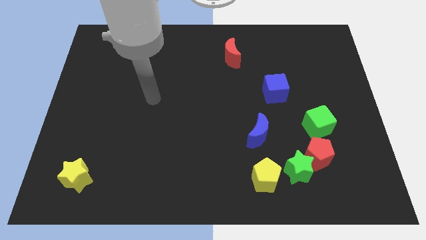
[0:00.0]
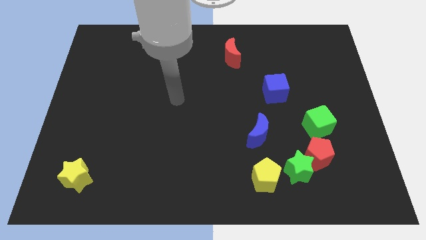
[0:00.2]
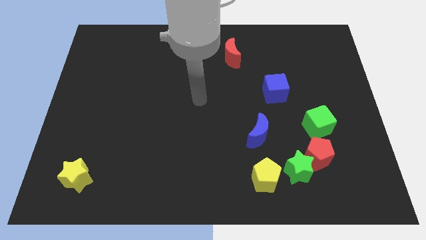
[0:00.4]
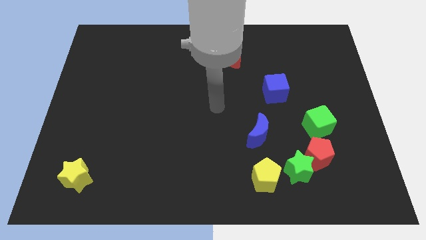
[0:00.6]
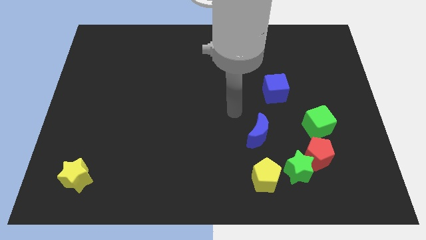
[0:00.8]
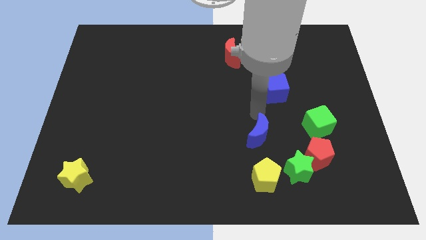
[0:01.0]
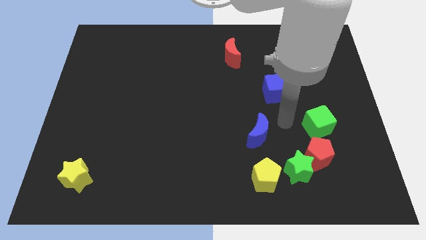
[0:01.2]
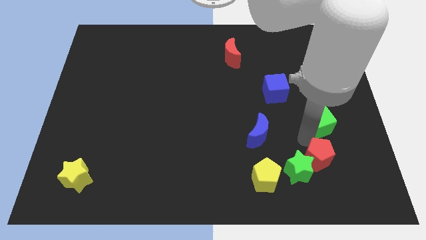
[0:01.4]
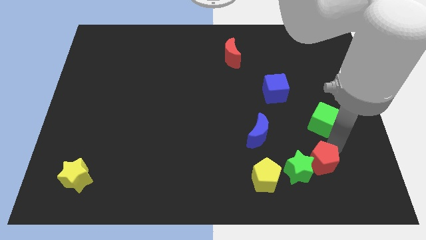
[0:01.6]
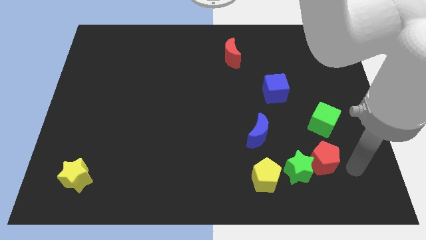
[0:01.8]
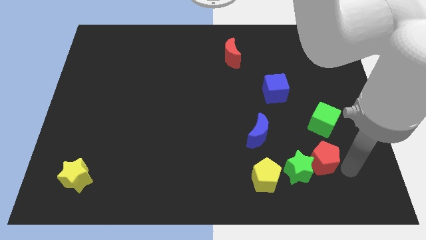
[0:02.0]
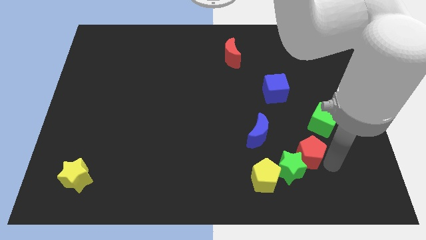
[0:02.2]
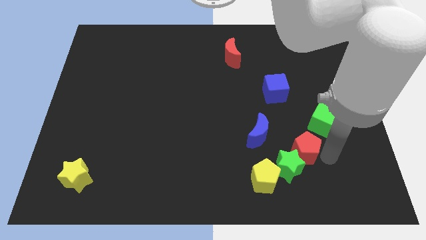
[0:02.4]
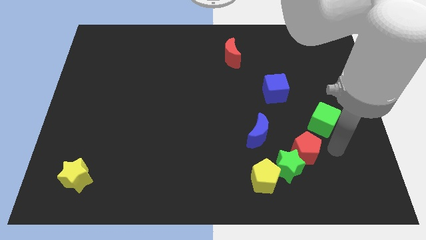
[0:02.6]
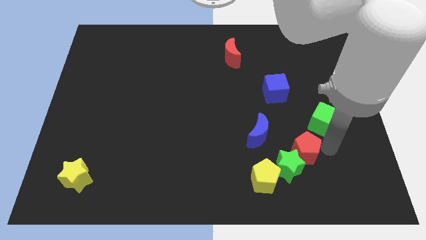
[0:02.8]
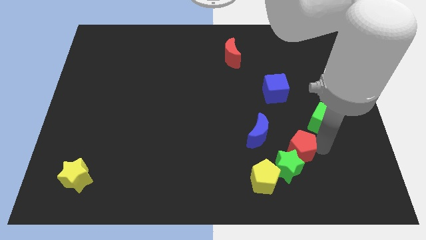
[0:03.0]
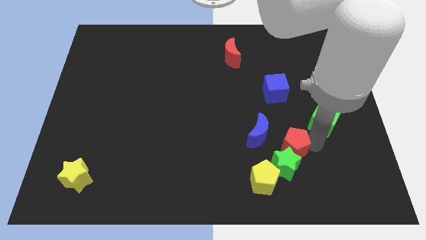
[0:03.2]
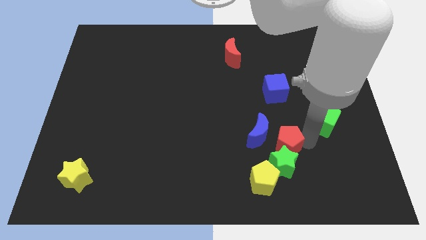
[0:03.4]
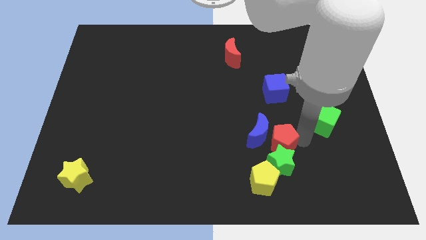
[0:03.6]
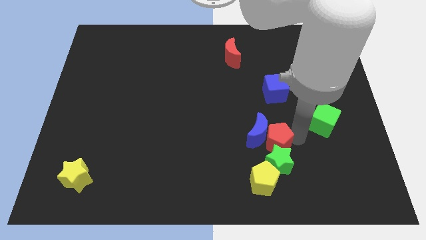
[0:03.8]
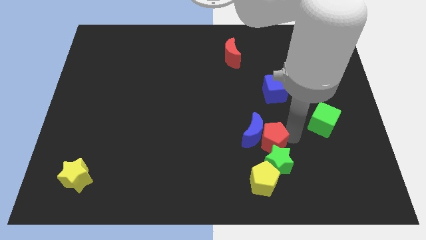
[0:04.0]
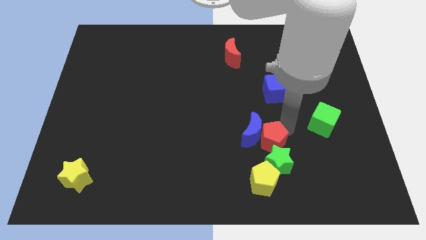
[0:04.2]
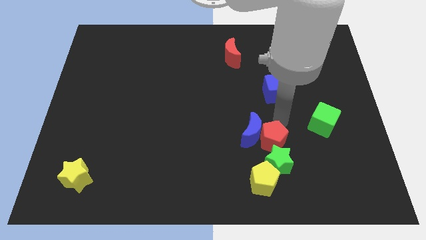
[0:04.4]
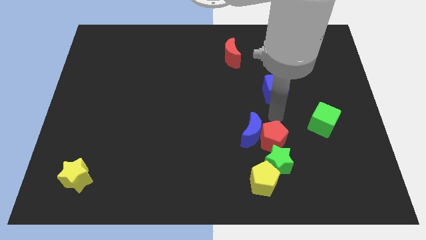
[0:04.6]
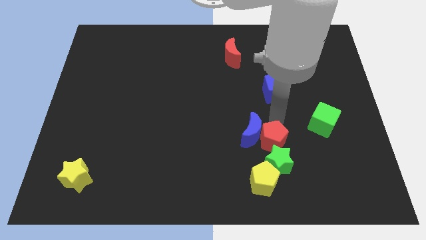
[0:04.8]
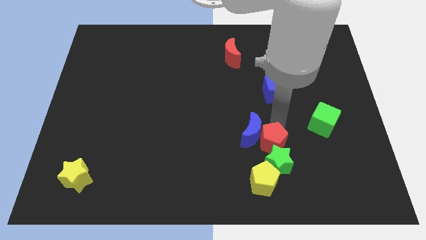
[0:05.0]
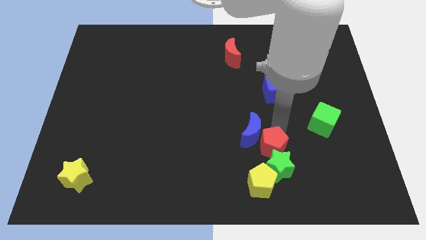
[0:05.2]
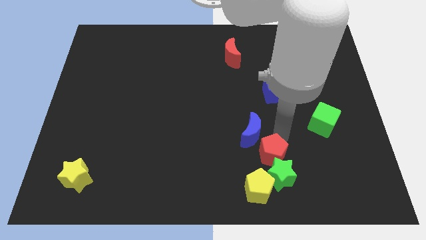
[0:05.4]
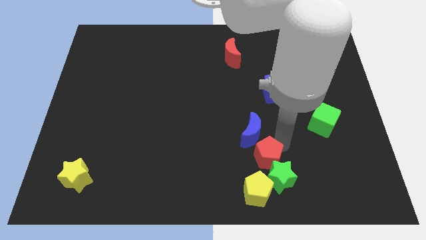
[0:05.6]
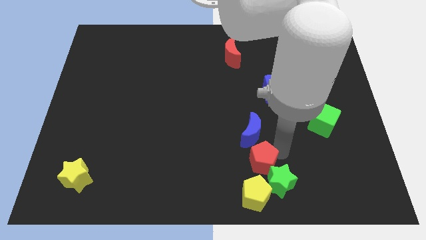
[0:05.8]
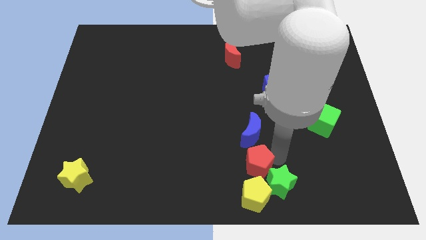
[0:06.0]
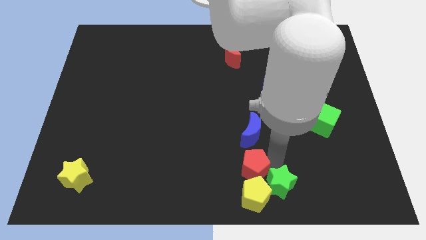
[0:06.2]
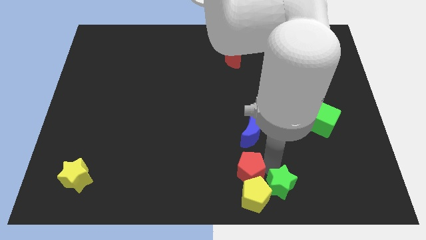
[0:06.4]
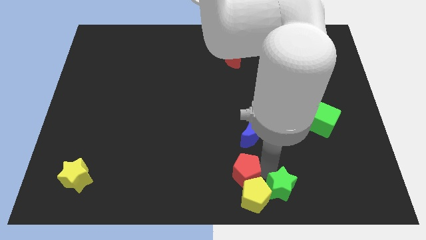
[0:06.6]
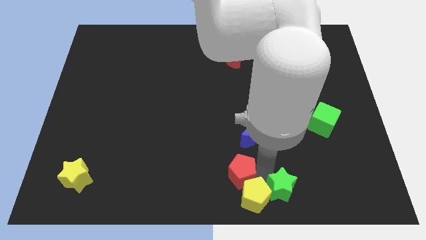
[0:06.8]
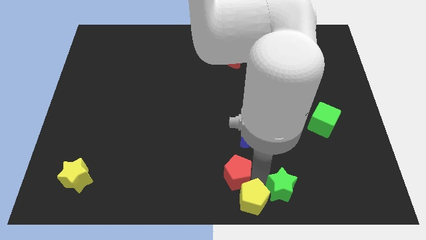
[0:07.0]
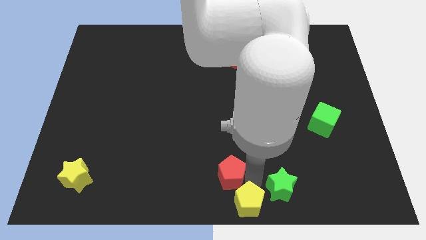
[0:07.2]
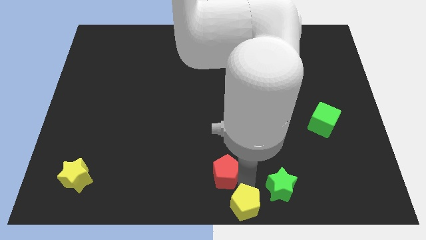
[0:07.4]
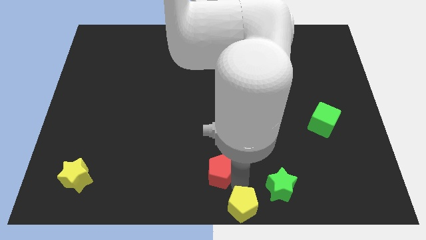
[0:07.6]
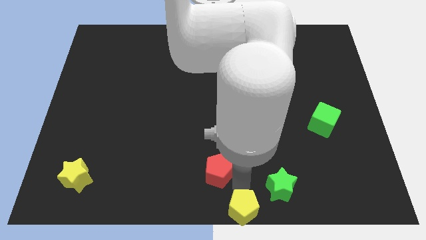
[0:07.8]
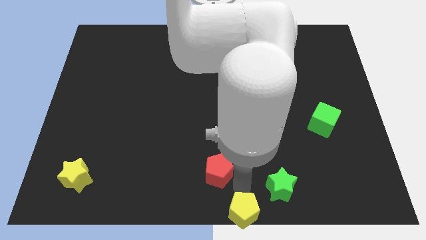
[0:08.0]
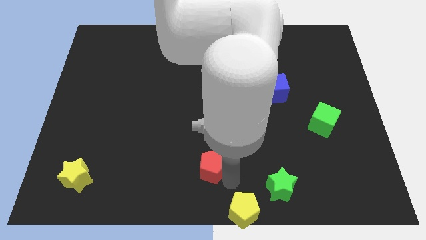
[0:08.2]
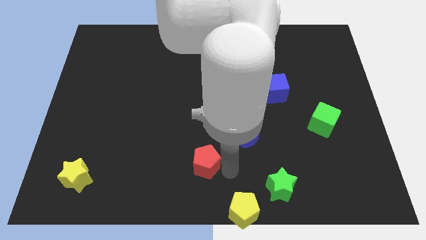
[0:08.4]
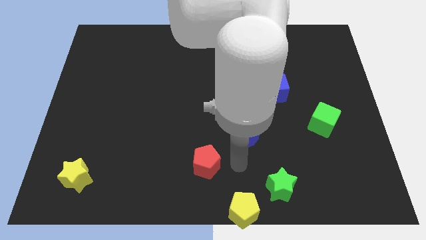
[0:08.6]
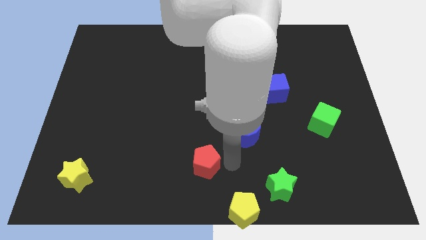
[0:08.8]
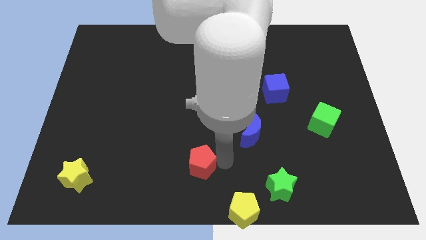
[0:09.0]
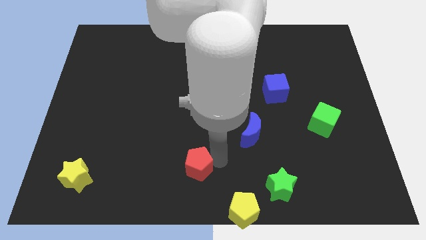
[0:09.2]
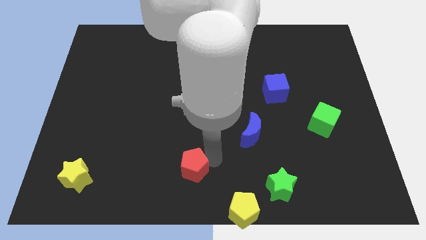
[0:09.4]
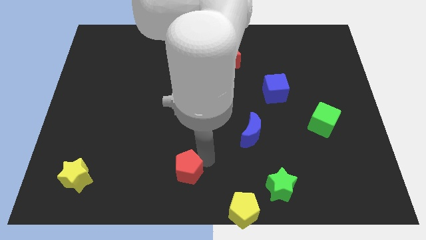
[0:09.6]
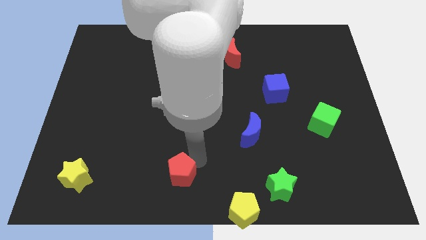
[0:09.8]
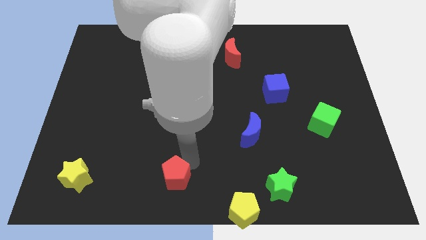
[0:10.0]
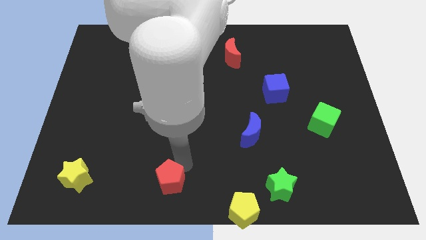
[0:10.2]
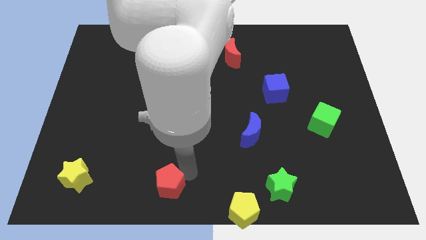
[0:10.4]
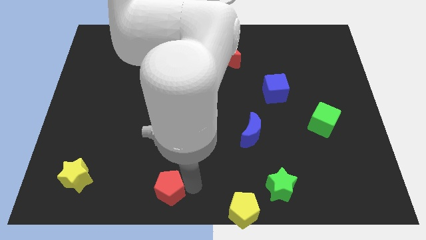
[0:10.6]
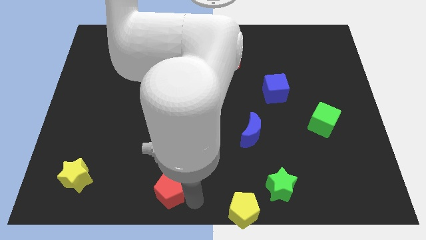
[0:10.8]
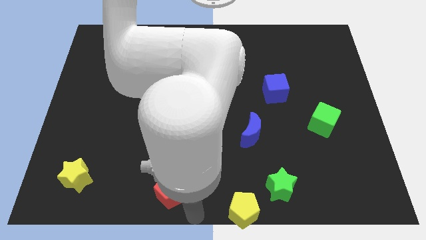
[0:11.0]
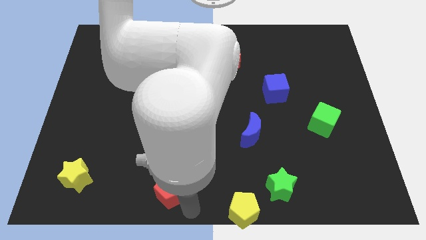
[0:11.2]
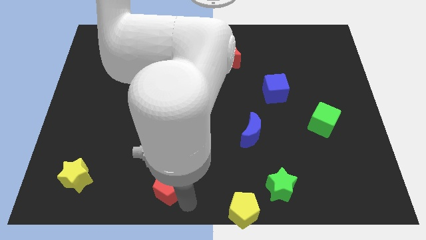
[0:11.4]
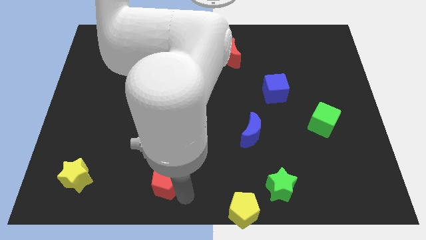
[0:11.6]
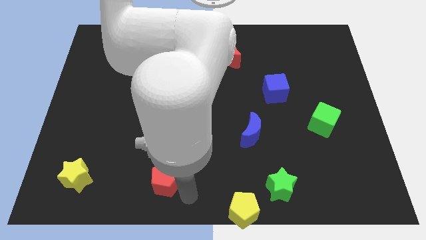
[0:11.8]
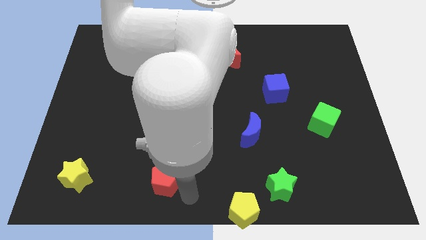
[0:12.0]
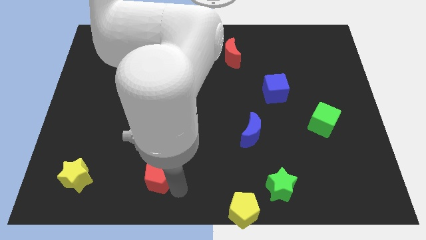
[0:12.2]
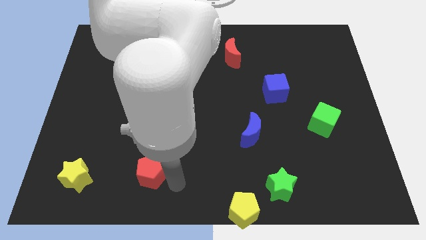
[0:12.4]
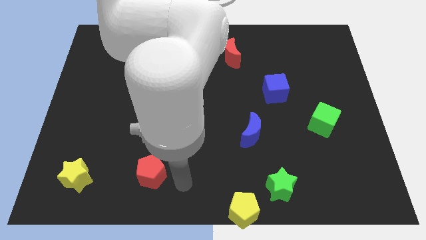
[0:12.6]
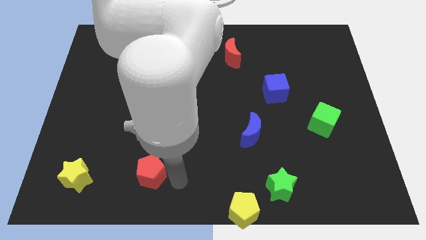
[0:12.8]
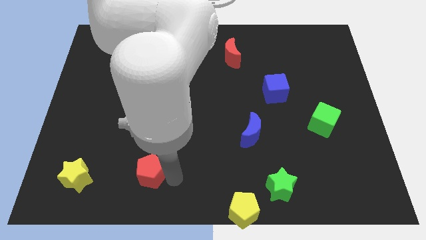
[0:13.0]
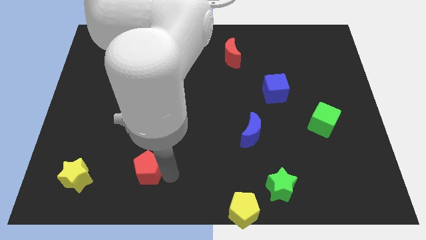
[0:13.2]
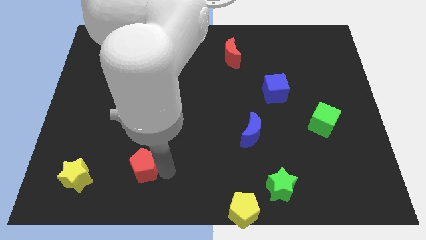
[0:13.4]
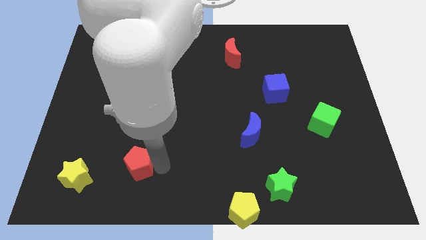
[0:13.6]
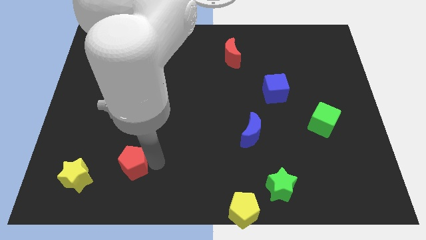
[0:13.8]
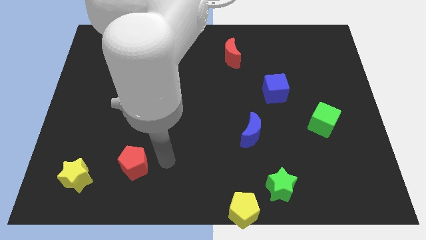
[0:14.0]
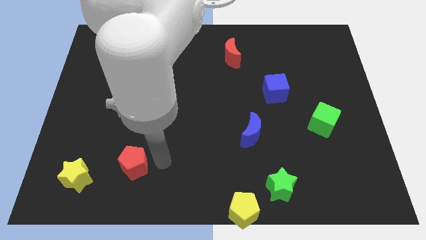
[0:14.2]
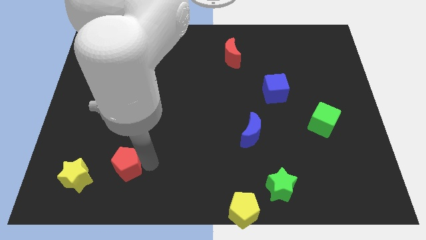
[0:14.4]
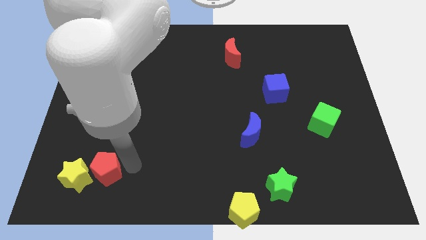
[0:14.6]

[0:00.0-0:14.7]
move the red pentagon to the yellow star

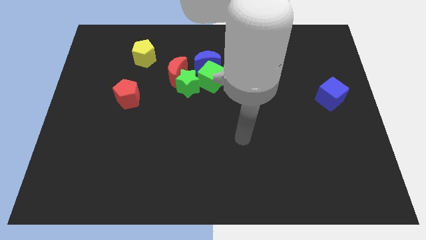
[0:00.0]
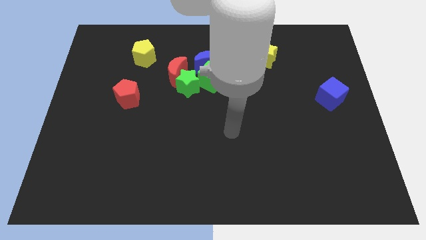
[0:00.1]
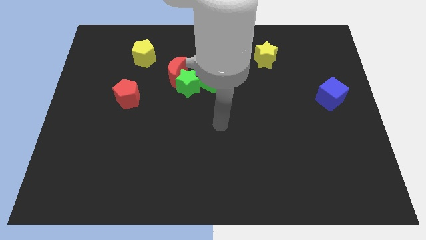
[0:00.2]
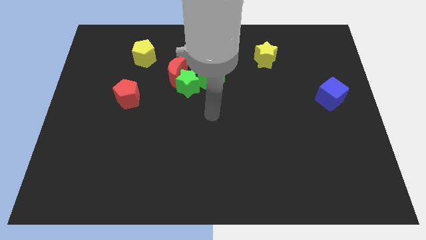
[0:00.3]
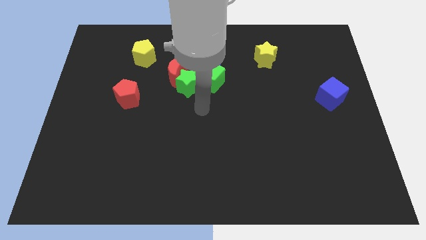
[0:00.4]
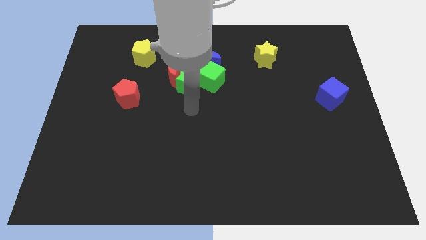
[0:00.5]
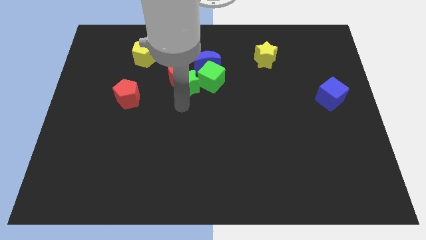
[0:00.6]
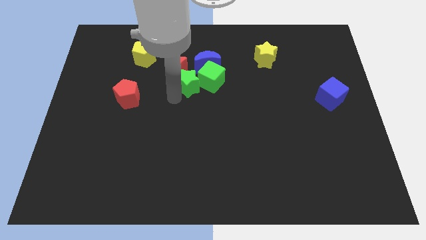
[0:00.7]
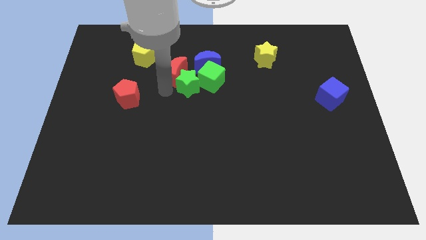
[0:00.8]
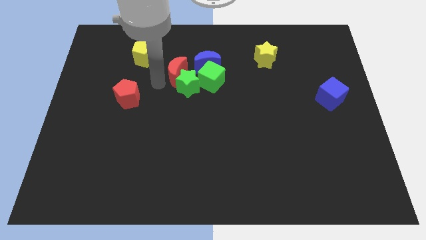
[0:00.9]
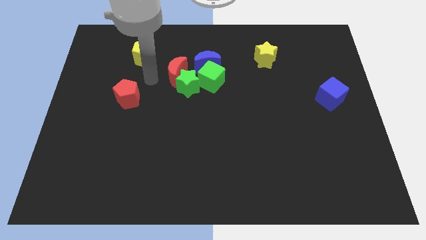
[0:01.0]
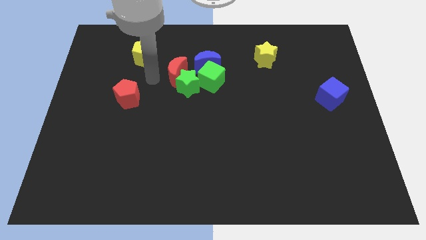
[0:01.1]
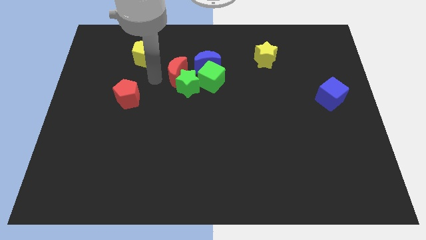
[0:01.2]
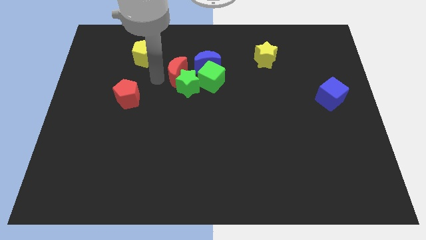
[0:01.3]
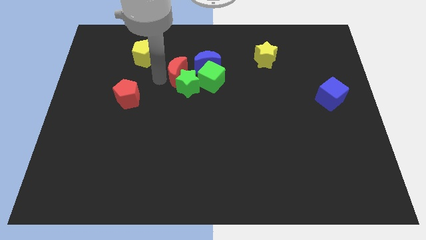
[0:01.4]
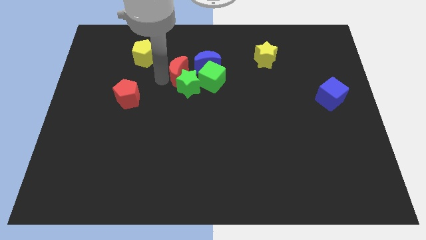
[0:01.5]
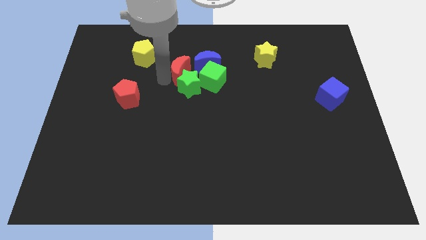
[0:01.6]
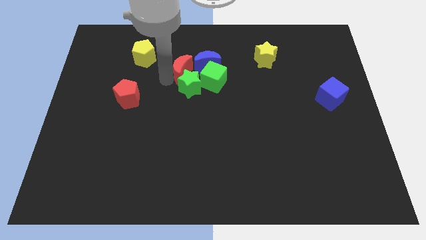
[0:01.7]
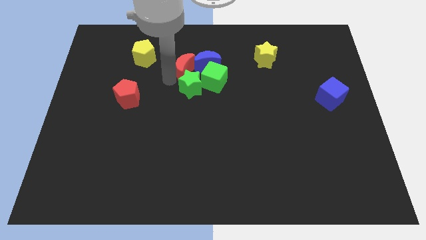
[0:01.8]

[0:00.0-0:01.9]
put the red moon to the blue moon
